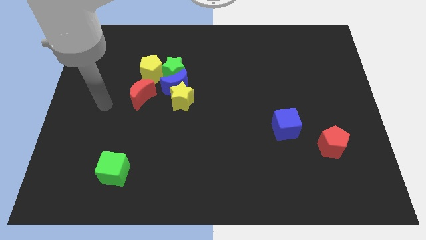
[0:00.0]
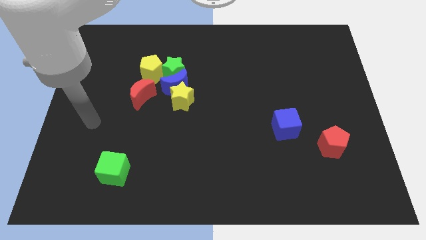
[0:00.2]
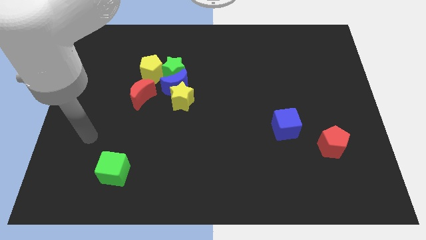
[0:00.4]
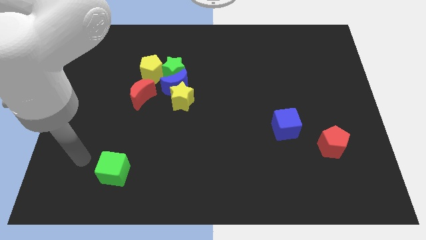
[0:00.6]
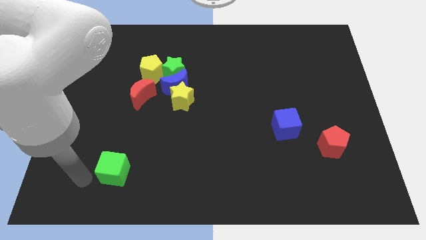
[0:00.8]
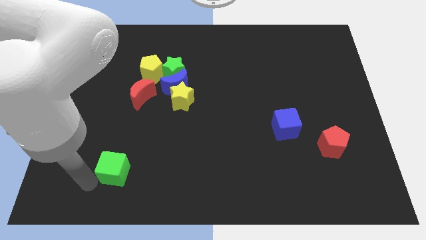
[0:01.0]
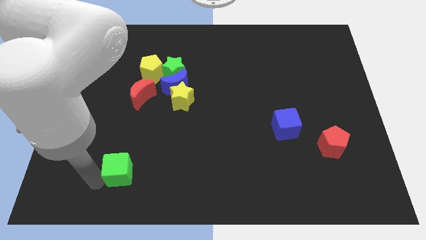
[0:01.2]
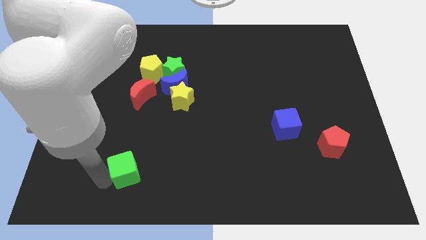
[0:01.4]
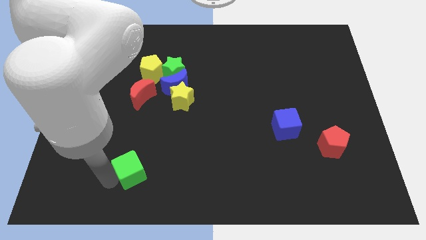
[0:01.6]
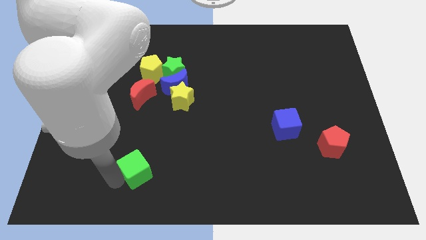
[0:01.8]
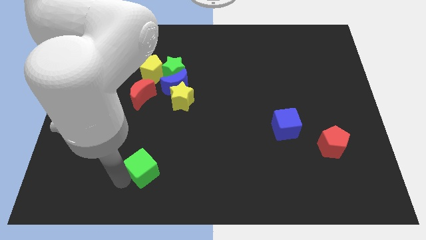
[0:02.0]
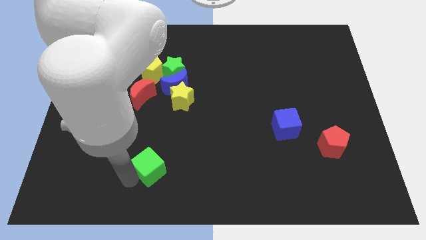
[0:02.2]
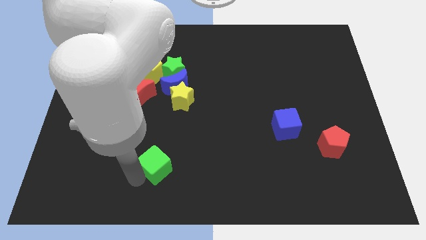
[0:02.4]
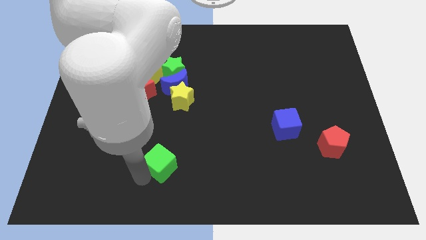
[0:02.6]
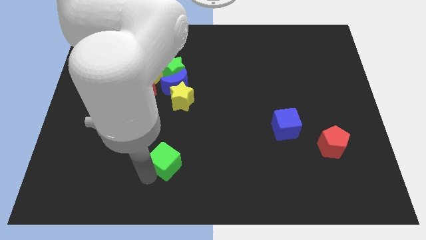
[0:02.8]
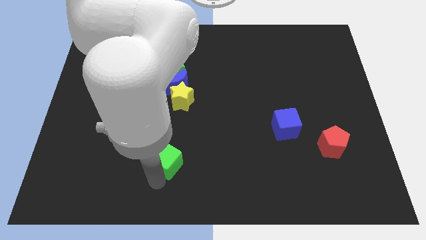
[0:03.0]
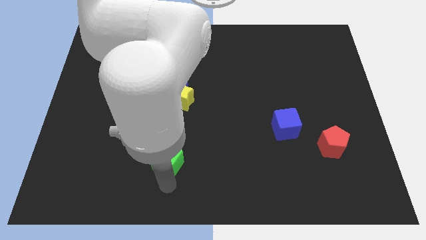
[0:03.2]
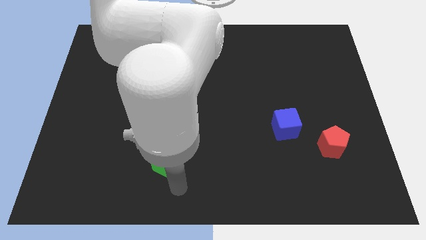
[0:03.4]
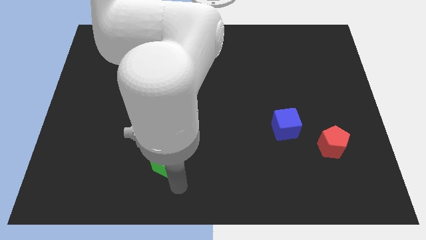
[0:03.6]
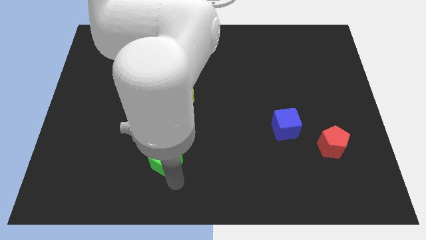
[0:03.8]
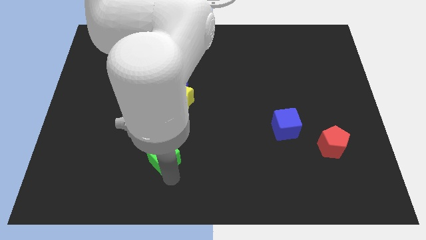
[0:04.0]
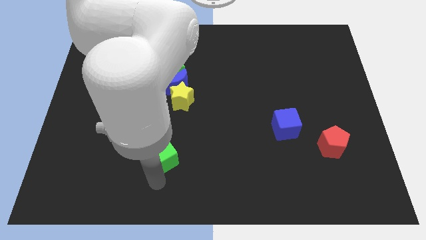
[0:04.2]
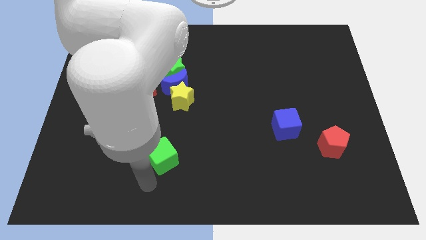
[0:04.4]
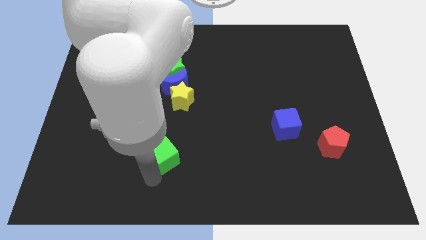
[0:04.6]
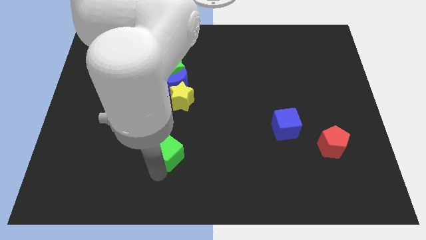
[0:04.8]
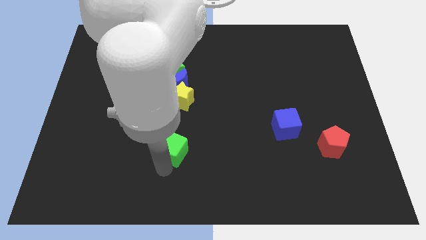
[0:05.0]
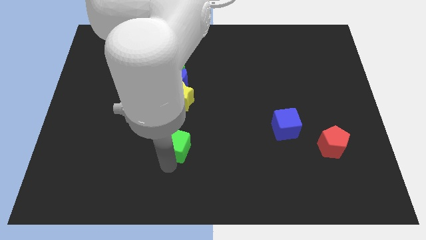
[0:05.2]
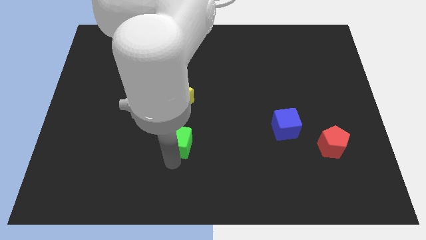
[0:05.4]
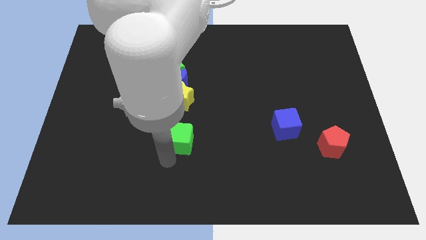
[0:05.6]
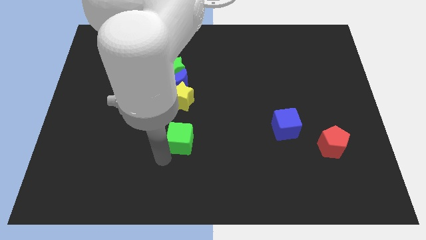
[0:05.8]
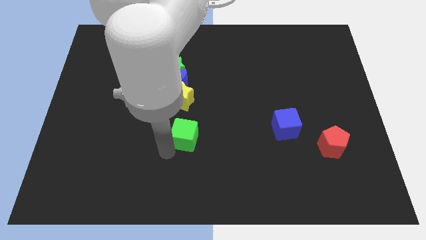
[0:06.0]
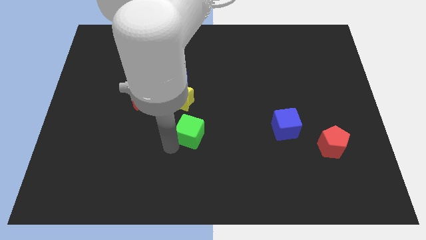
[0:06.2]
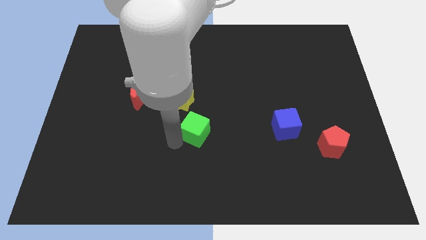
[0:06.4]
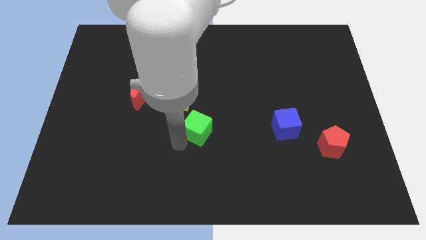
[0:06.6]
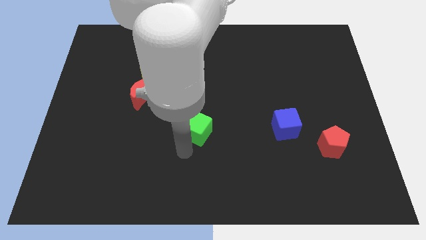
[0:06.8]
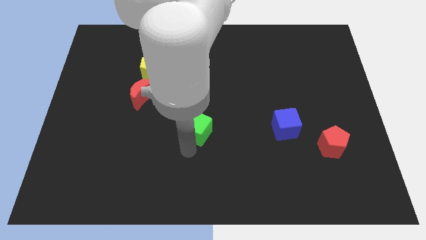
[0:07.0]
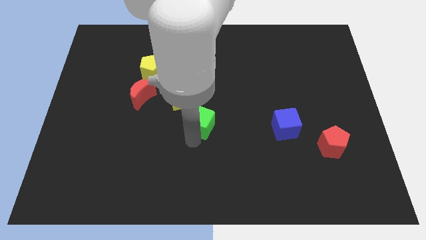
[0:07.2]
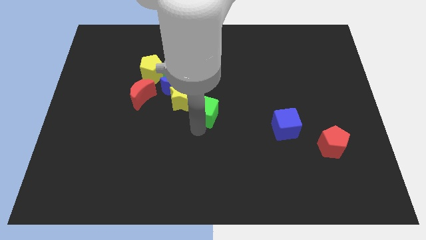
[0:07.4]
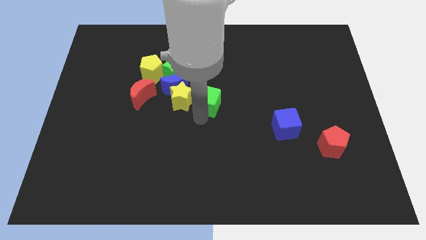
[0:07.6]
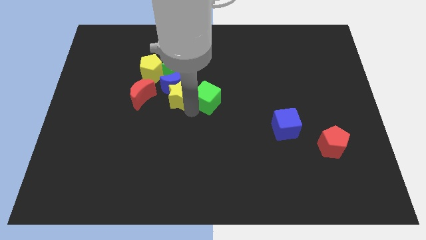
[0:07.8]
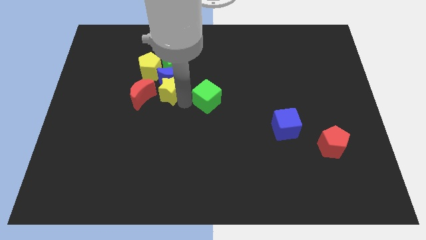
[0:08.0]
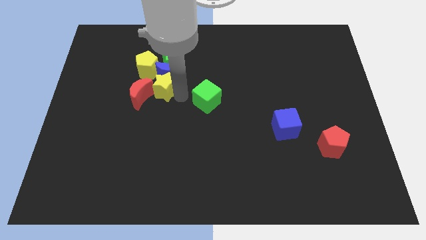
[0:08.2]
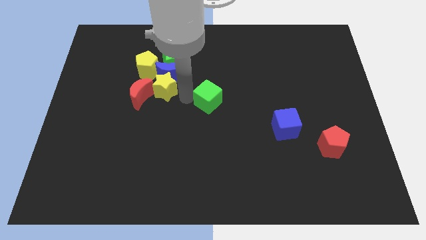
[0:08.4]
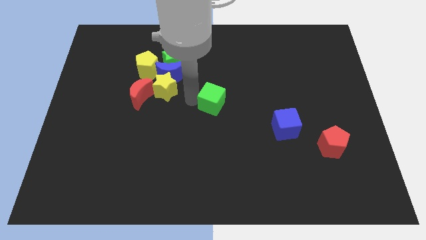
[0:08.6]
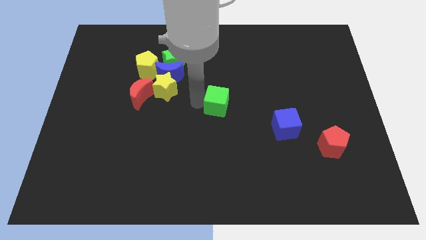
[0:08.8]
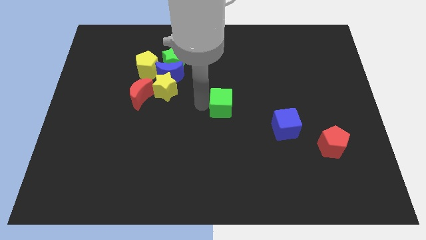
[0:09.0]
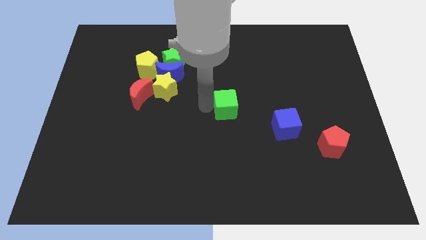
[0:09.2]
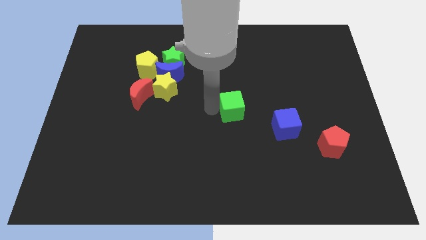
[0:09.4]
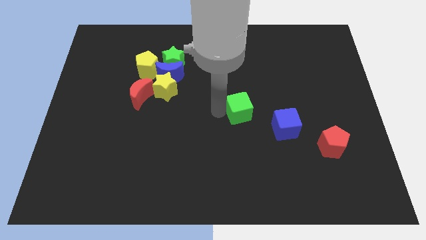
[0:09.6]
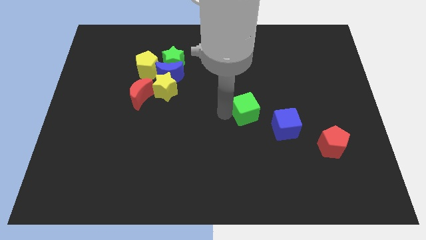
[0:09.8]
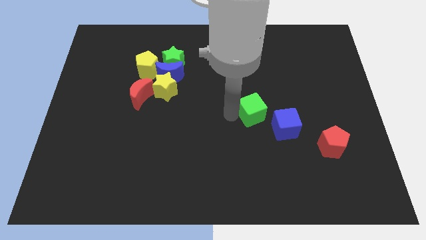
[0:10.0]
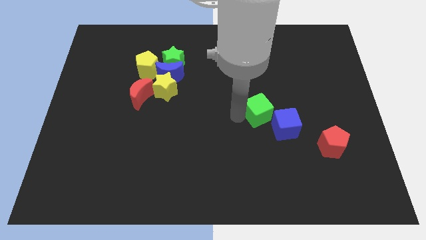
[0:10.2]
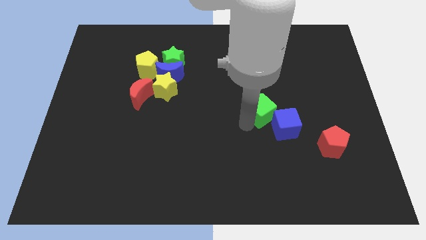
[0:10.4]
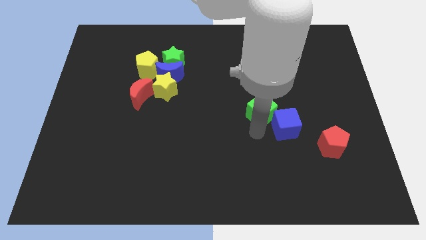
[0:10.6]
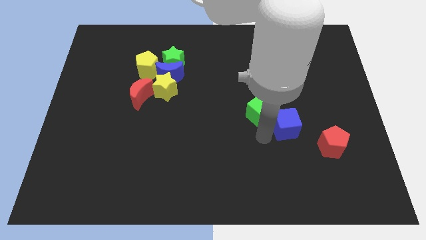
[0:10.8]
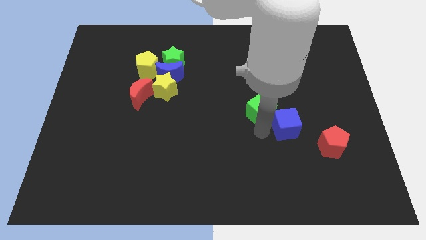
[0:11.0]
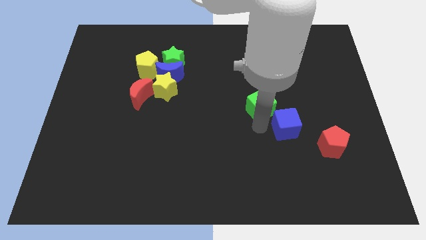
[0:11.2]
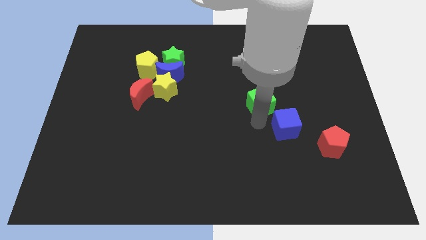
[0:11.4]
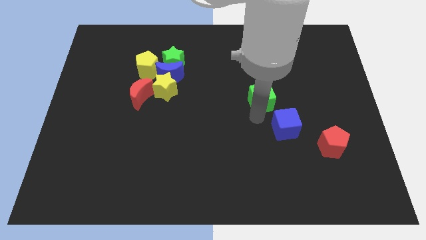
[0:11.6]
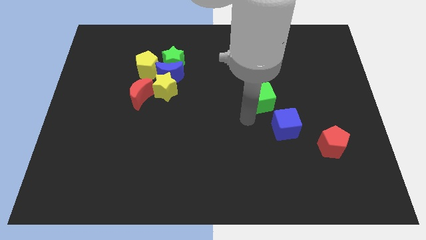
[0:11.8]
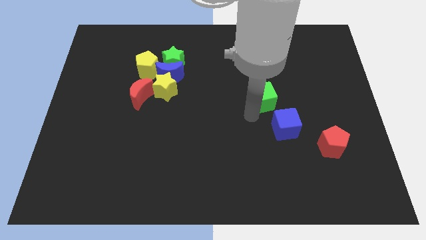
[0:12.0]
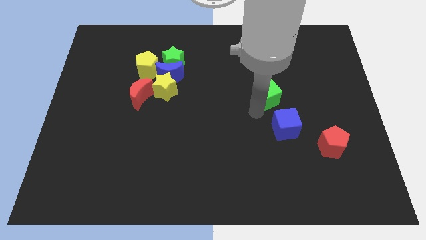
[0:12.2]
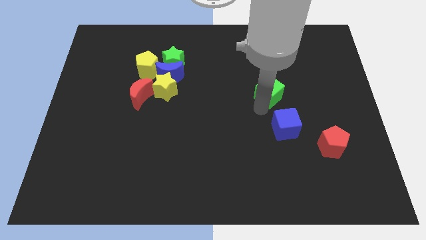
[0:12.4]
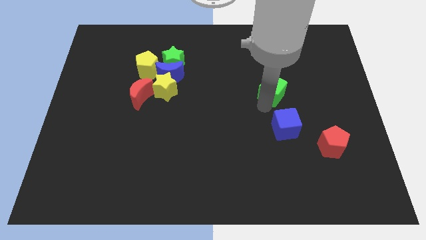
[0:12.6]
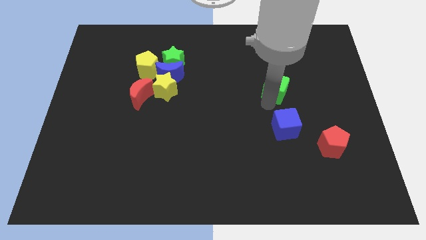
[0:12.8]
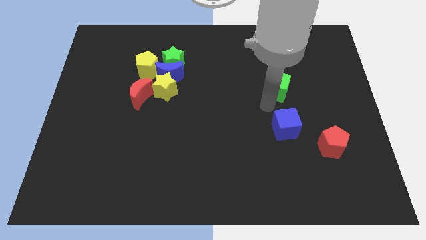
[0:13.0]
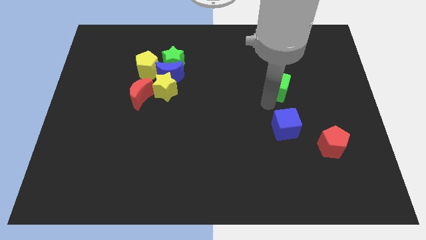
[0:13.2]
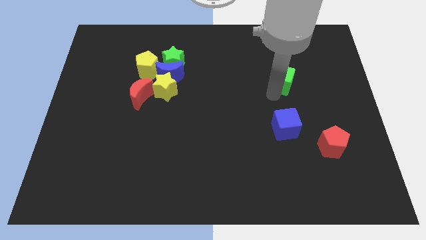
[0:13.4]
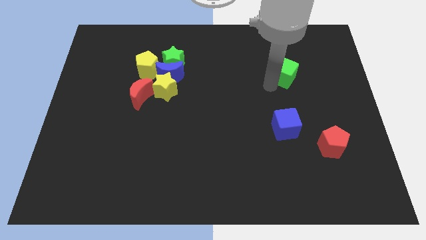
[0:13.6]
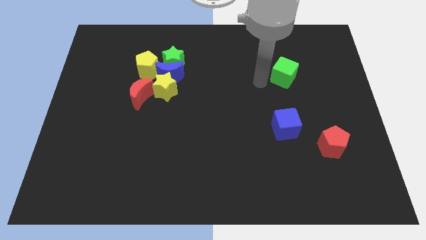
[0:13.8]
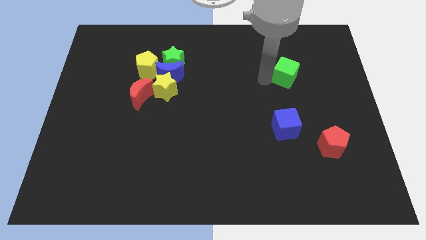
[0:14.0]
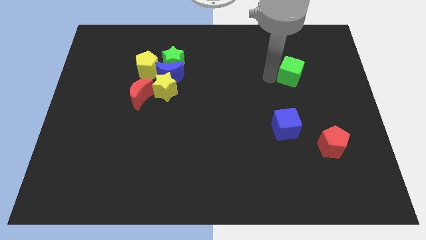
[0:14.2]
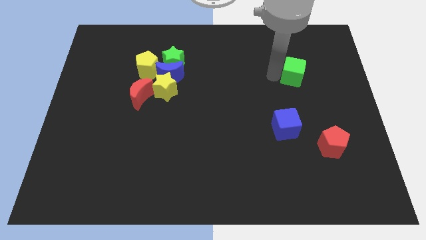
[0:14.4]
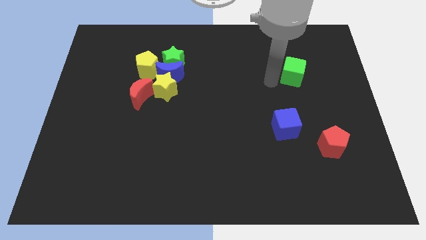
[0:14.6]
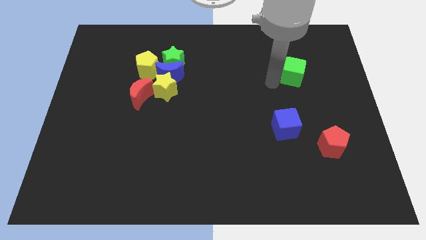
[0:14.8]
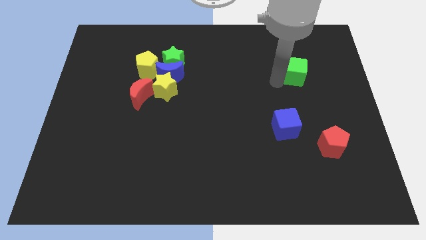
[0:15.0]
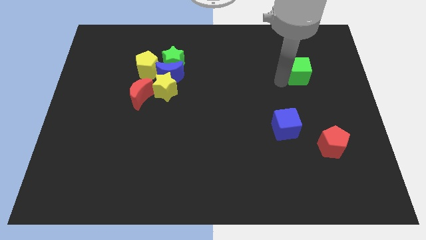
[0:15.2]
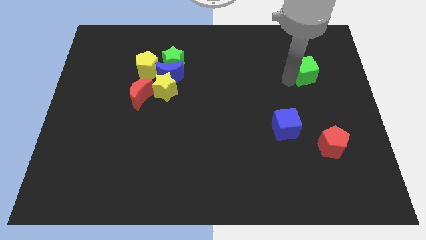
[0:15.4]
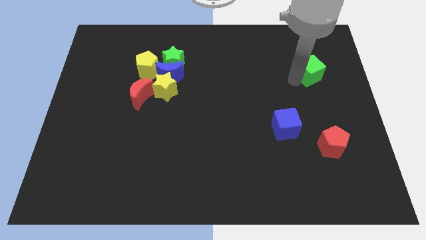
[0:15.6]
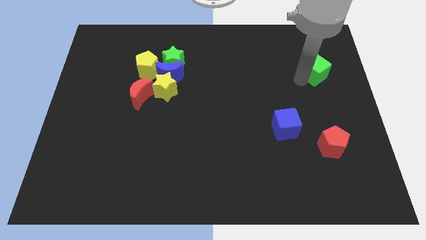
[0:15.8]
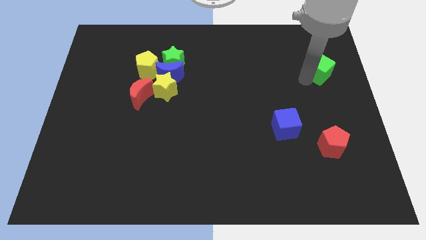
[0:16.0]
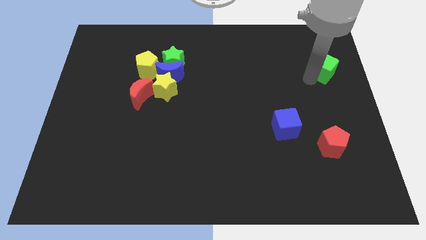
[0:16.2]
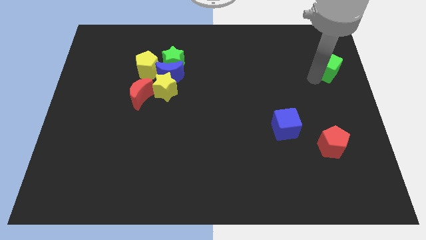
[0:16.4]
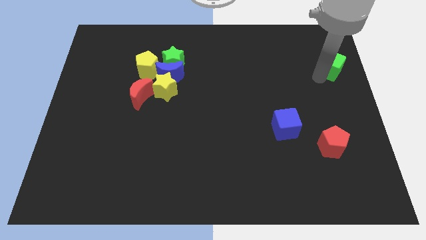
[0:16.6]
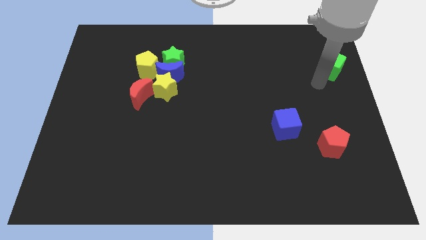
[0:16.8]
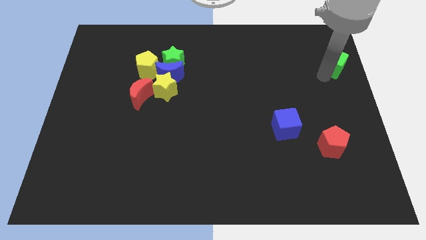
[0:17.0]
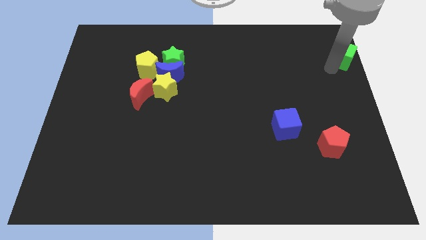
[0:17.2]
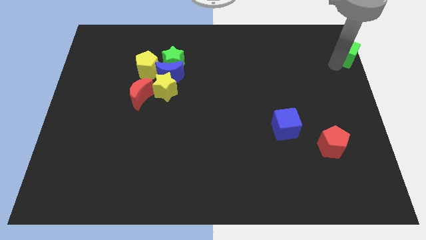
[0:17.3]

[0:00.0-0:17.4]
push the green cube to the top right
